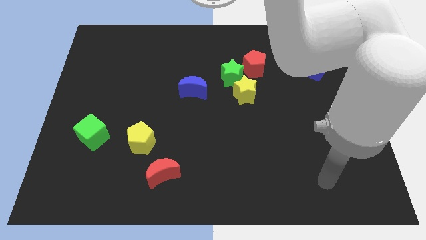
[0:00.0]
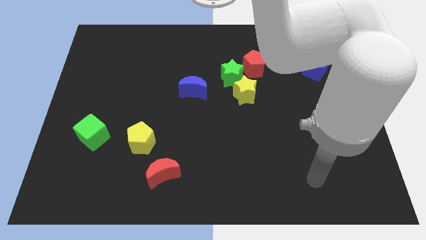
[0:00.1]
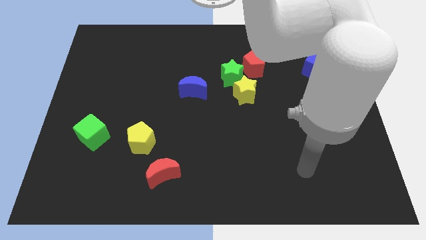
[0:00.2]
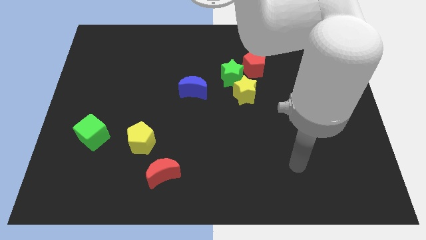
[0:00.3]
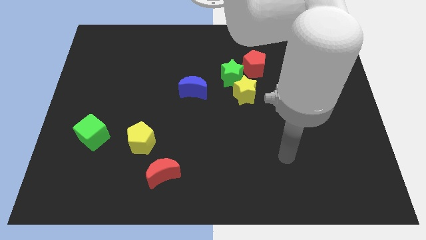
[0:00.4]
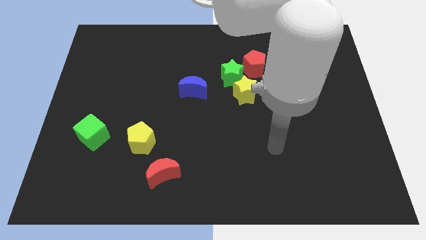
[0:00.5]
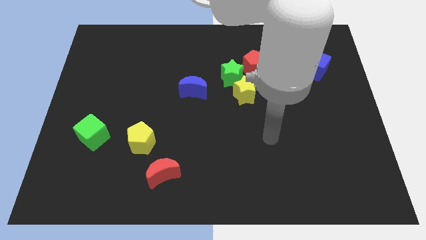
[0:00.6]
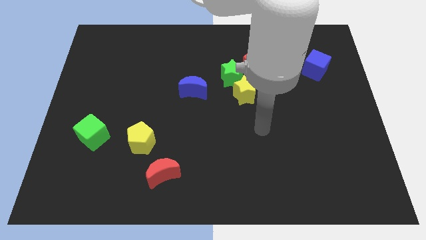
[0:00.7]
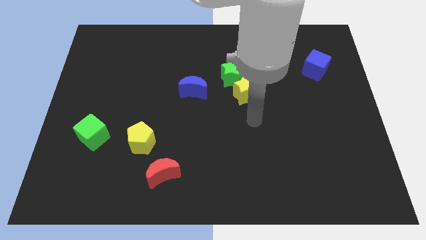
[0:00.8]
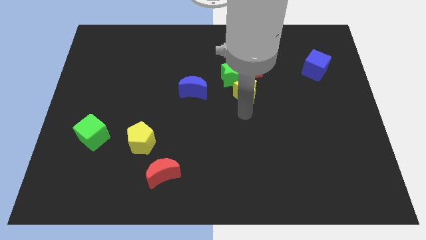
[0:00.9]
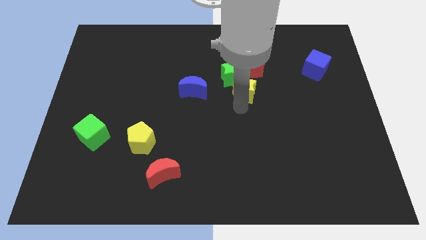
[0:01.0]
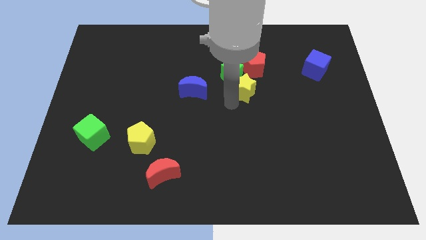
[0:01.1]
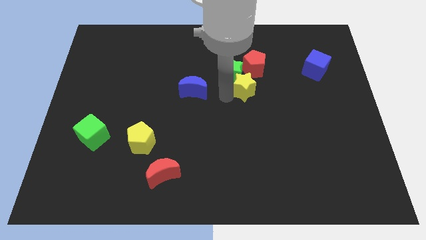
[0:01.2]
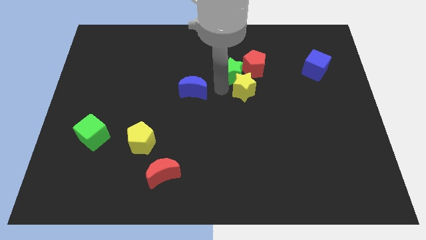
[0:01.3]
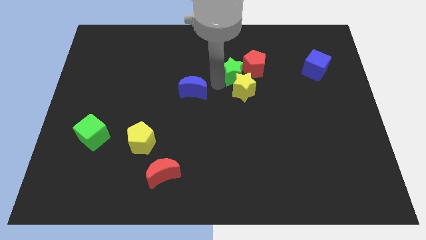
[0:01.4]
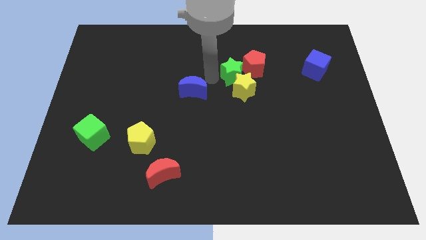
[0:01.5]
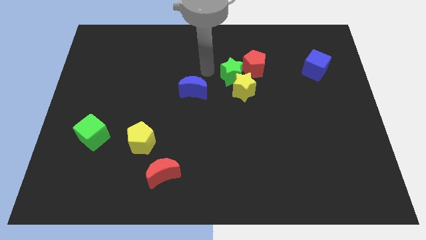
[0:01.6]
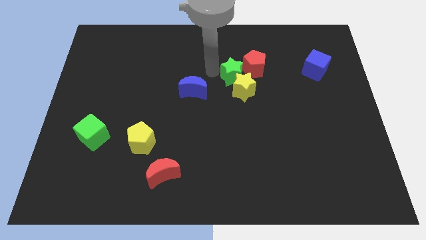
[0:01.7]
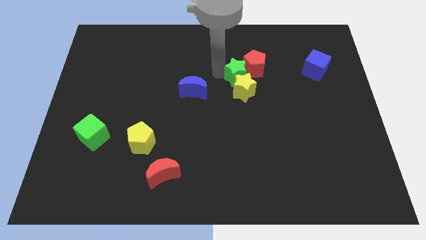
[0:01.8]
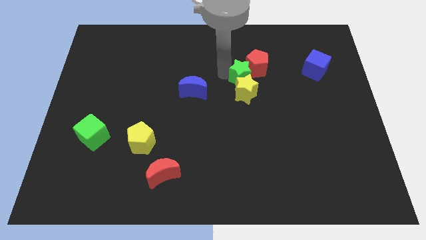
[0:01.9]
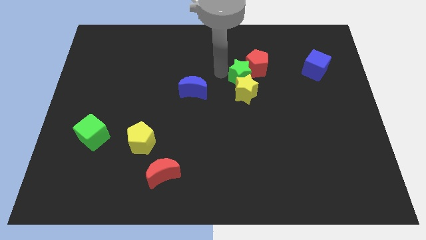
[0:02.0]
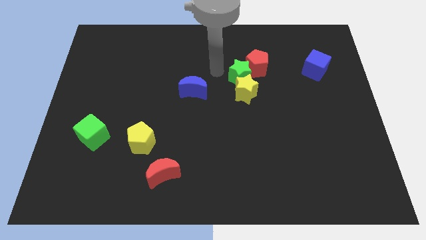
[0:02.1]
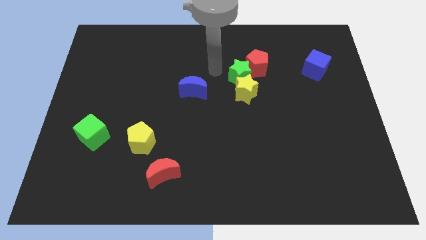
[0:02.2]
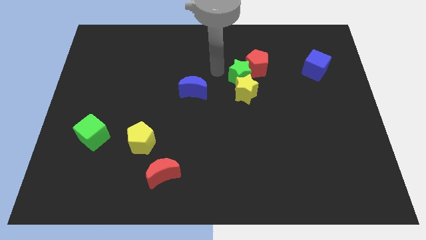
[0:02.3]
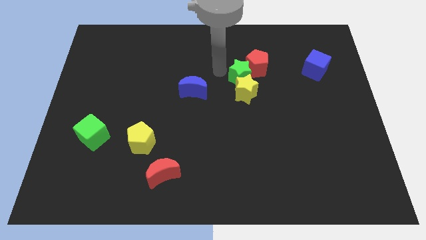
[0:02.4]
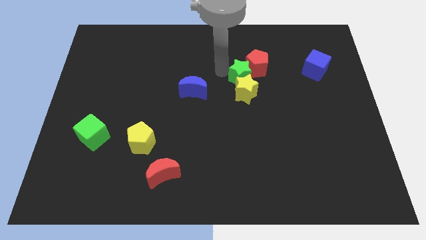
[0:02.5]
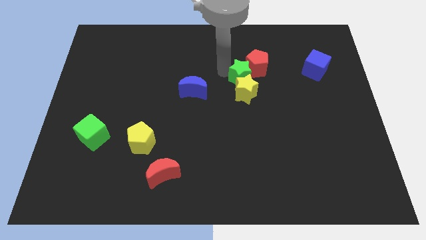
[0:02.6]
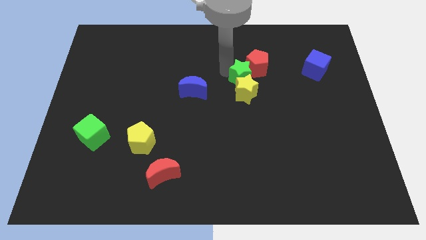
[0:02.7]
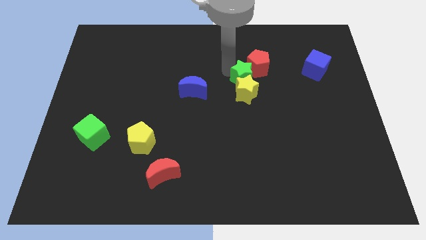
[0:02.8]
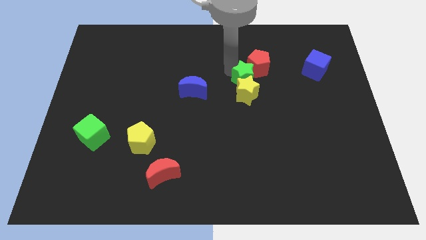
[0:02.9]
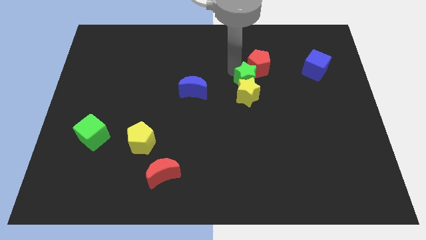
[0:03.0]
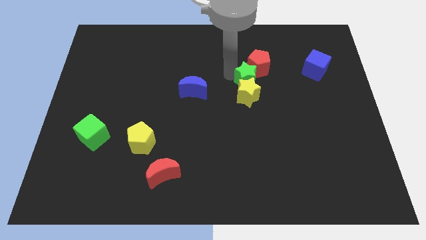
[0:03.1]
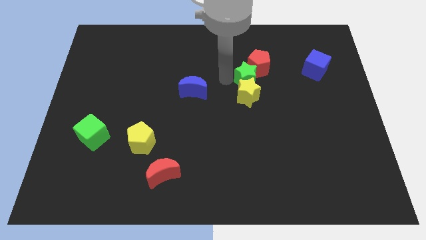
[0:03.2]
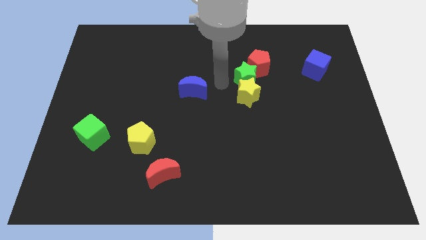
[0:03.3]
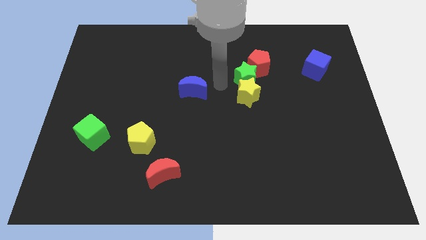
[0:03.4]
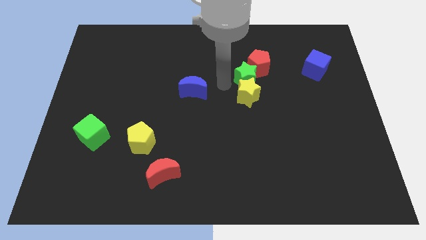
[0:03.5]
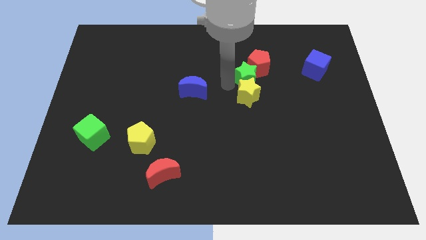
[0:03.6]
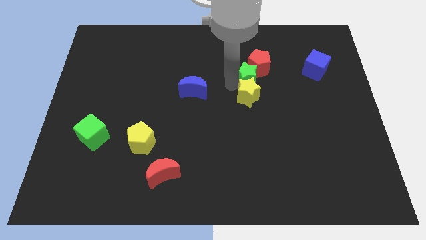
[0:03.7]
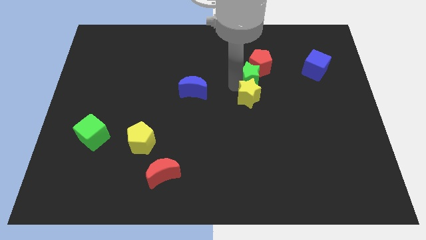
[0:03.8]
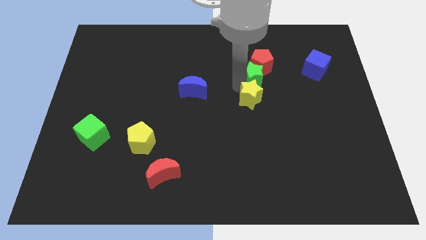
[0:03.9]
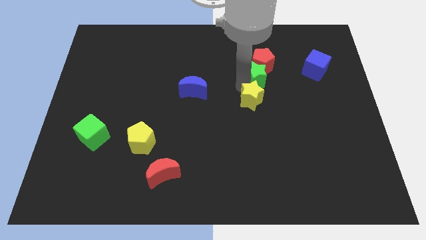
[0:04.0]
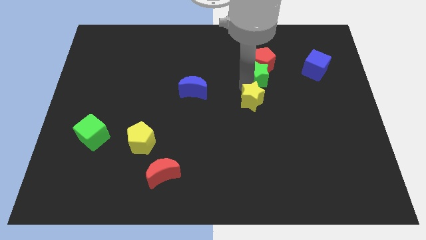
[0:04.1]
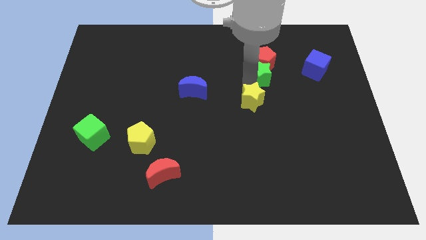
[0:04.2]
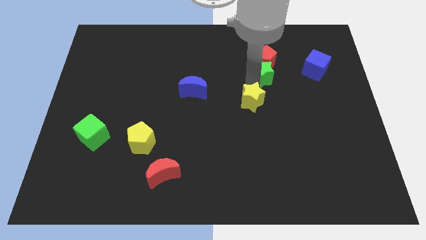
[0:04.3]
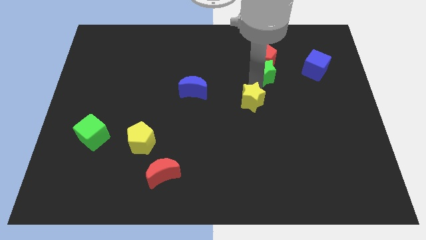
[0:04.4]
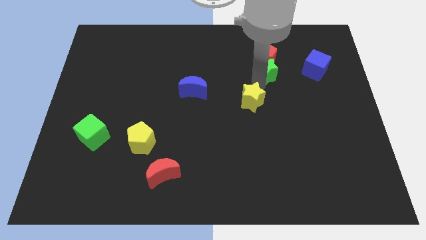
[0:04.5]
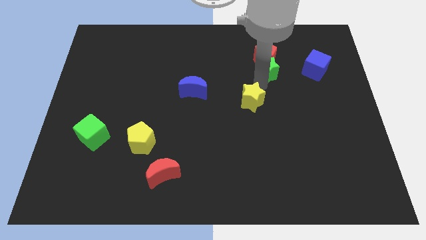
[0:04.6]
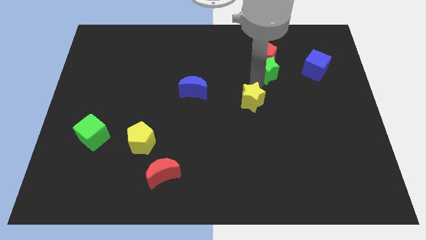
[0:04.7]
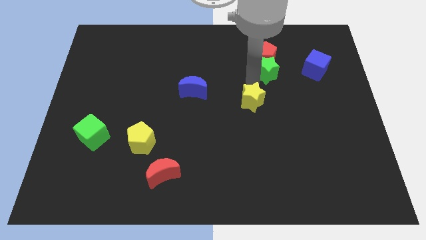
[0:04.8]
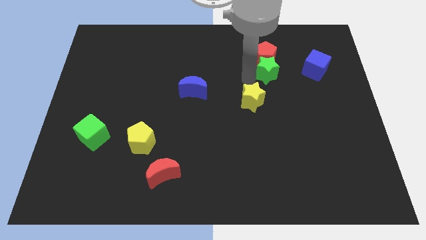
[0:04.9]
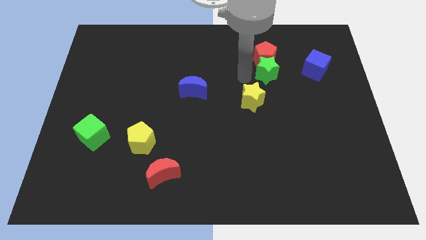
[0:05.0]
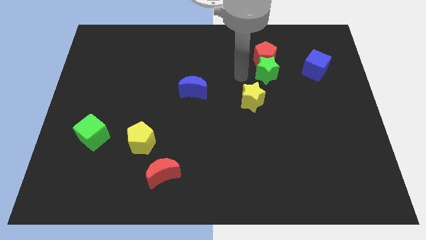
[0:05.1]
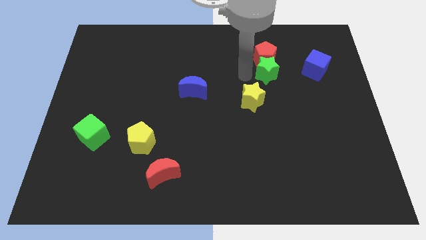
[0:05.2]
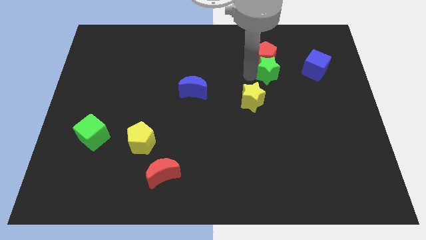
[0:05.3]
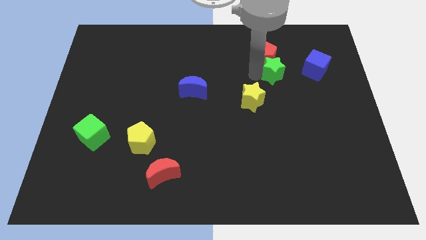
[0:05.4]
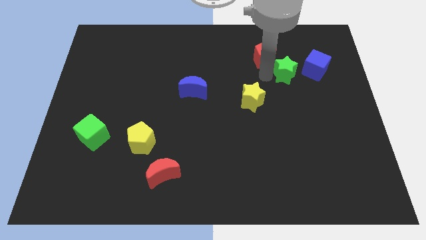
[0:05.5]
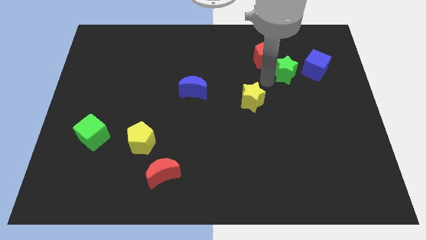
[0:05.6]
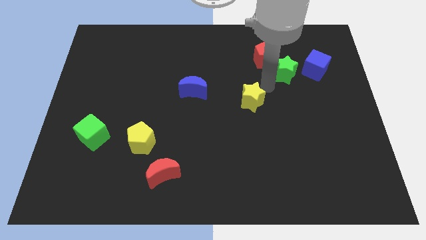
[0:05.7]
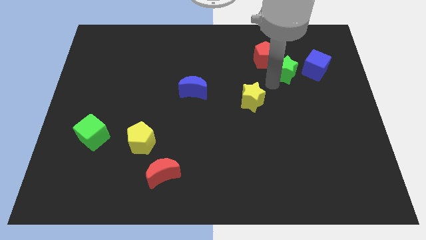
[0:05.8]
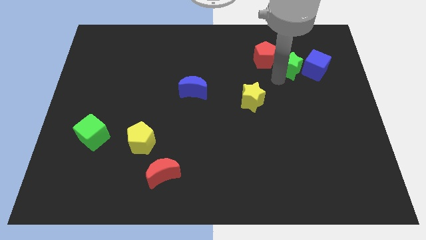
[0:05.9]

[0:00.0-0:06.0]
put the green star right of the red pentagon

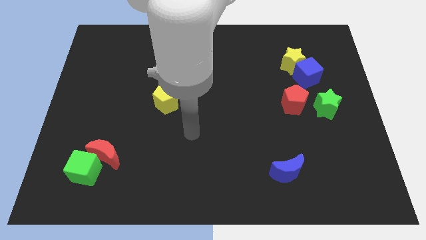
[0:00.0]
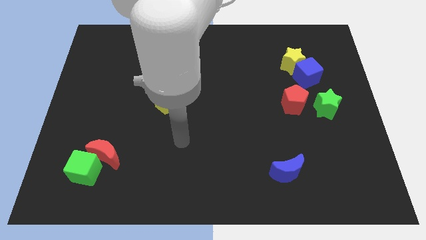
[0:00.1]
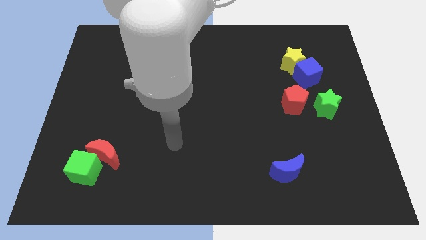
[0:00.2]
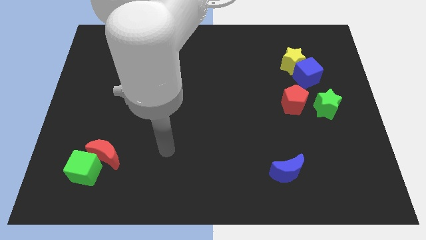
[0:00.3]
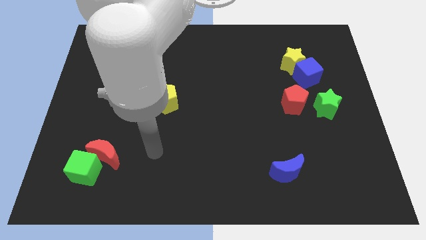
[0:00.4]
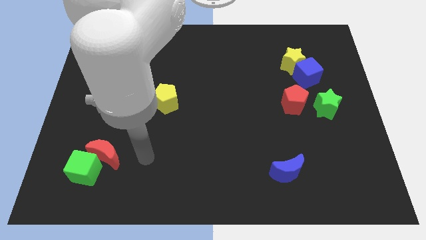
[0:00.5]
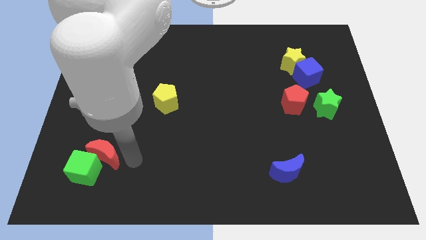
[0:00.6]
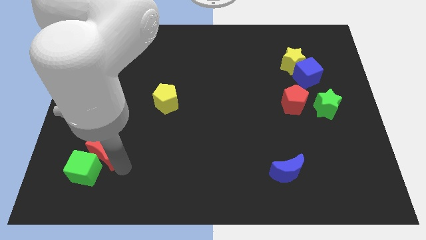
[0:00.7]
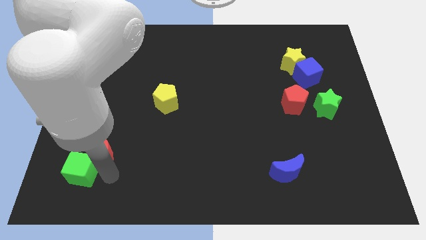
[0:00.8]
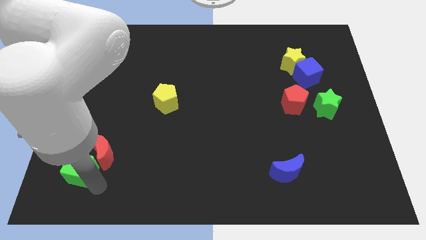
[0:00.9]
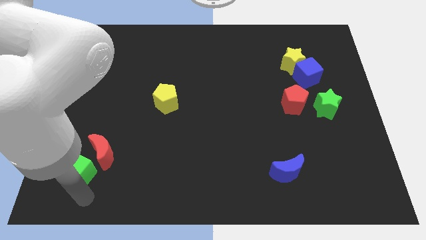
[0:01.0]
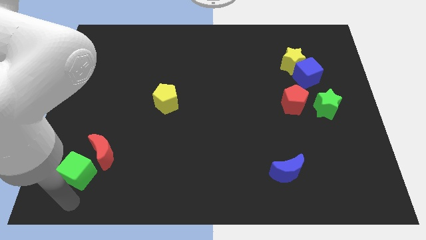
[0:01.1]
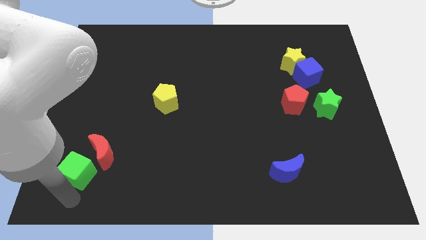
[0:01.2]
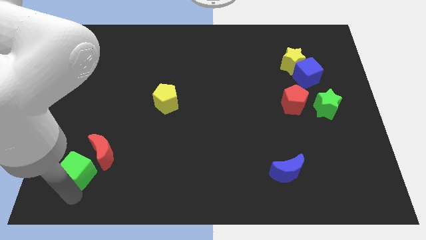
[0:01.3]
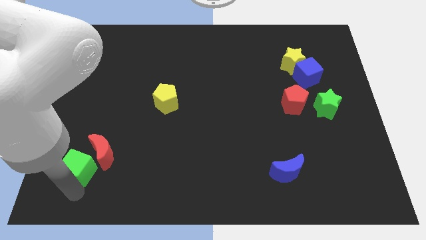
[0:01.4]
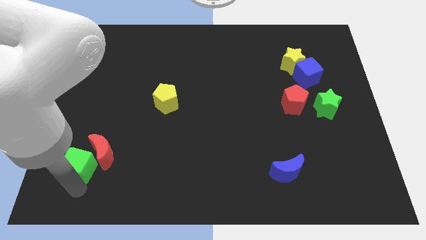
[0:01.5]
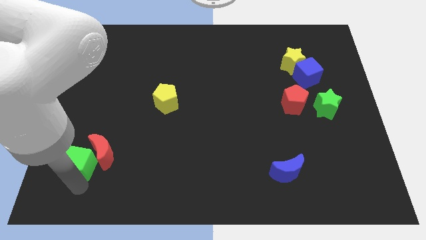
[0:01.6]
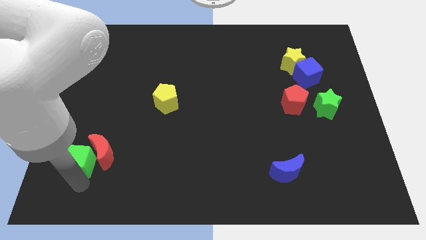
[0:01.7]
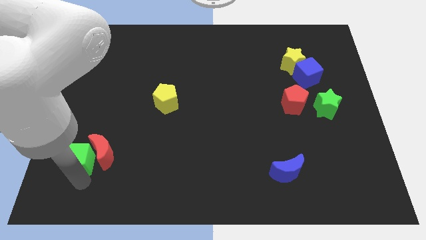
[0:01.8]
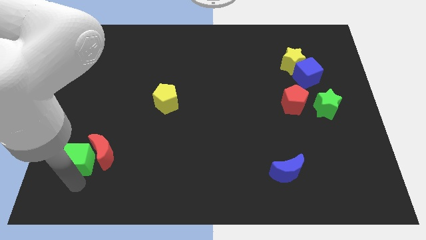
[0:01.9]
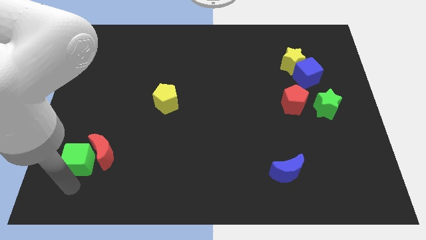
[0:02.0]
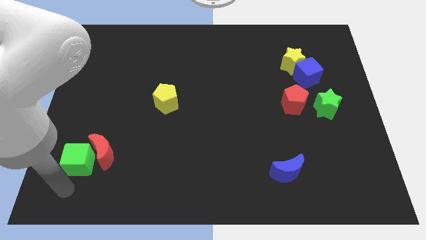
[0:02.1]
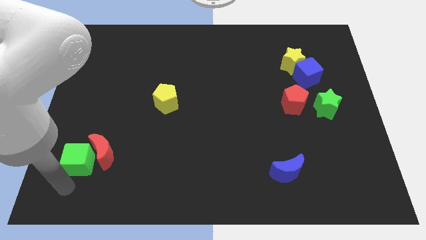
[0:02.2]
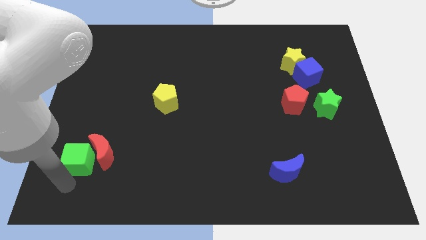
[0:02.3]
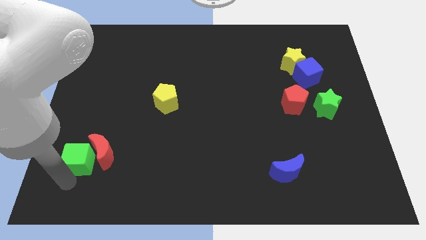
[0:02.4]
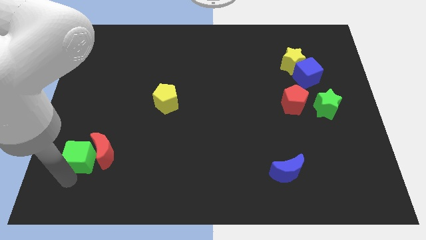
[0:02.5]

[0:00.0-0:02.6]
push the green cube to the top left side of the red moon
